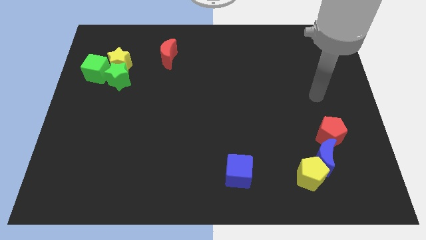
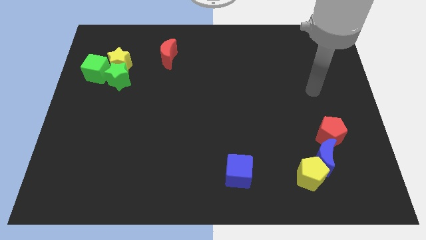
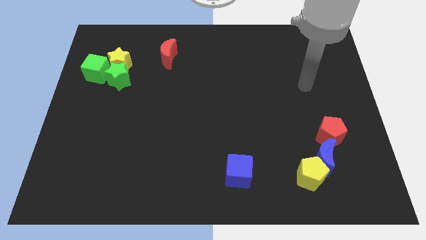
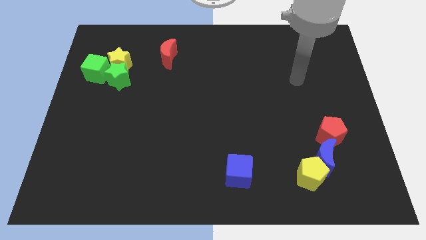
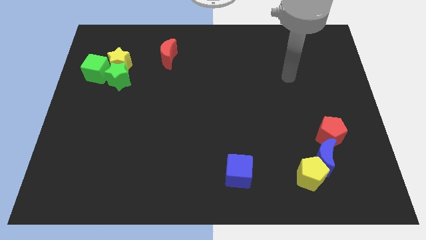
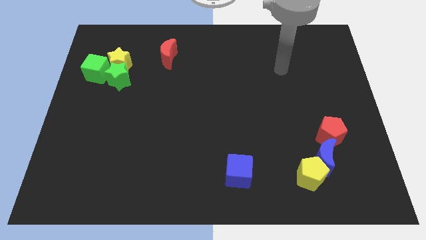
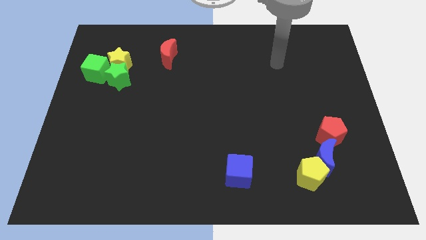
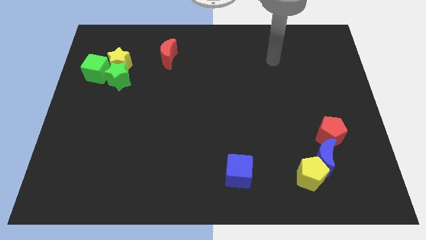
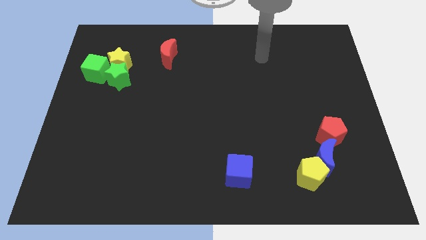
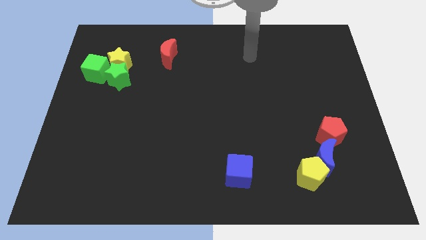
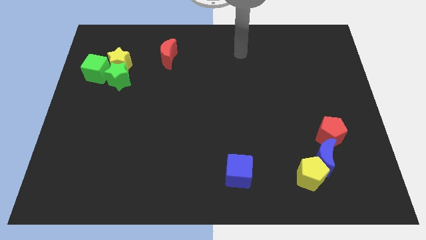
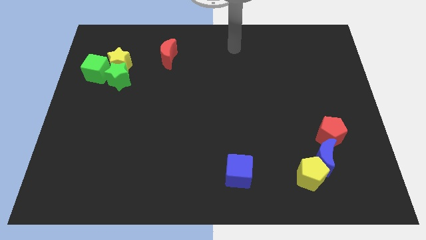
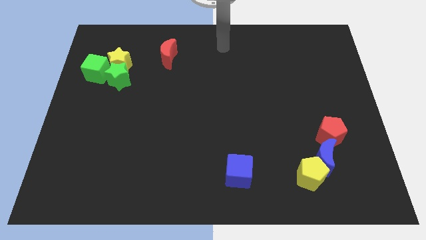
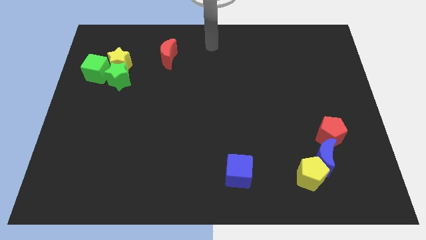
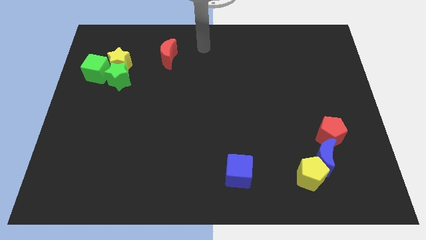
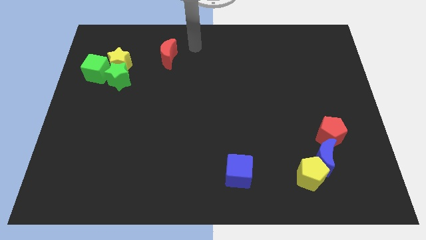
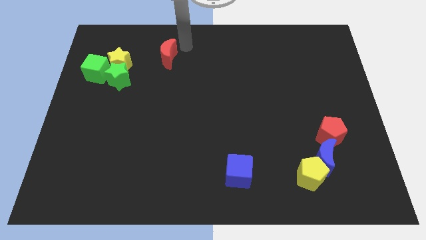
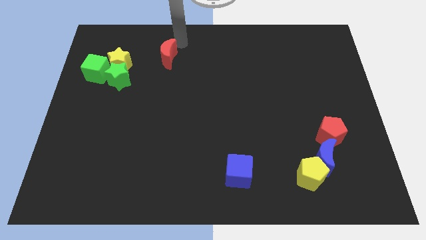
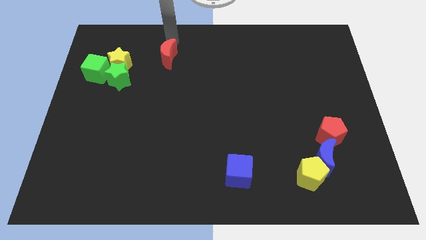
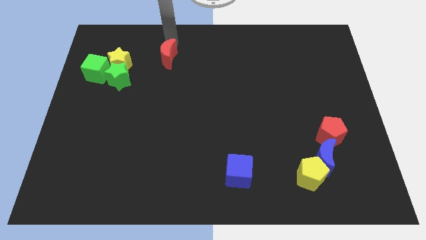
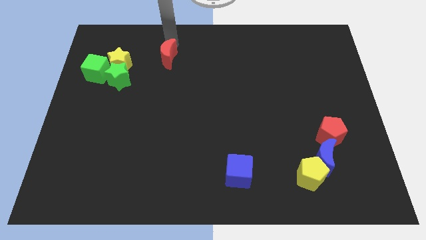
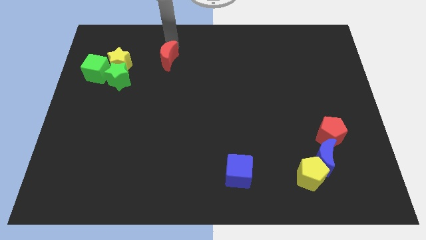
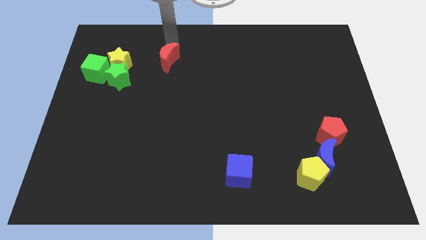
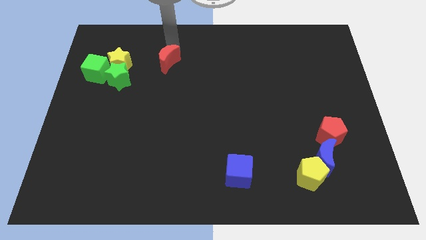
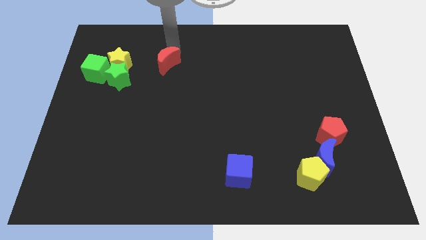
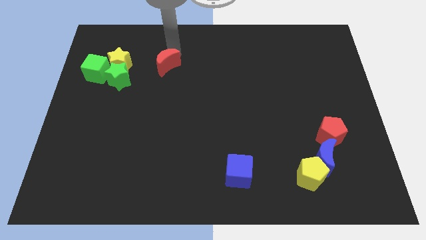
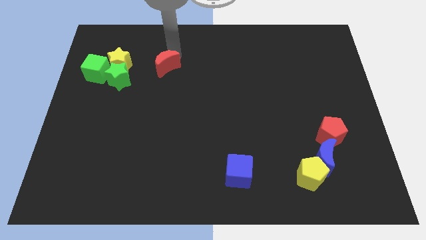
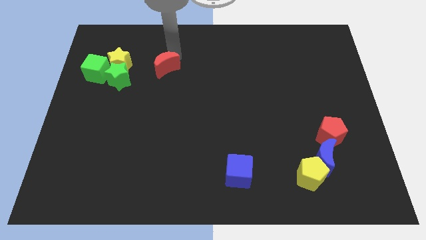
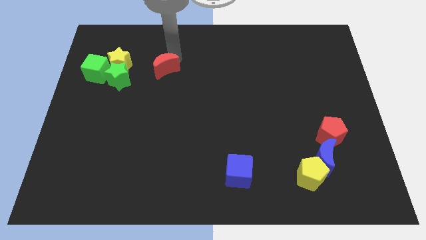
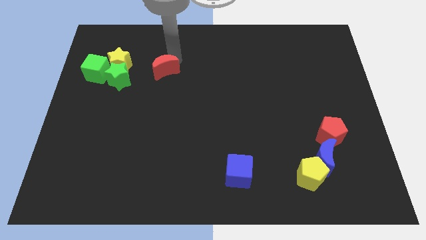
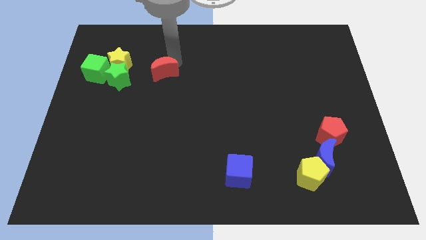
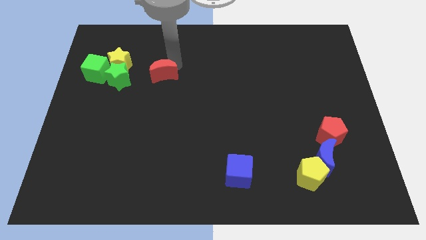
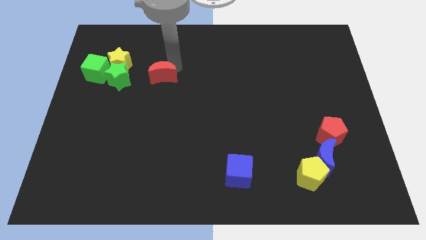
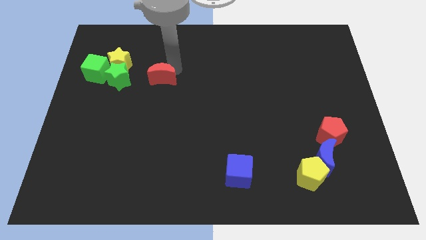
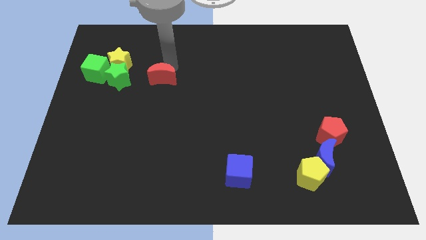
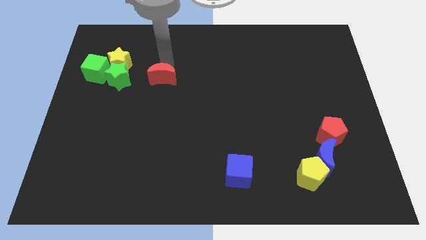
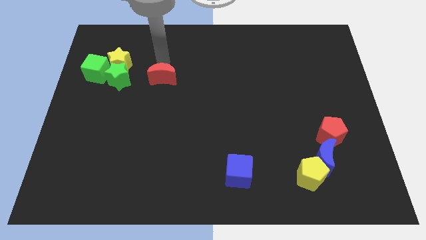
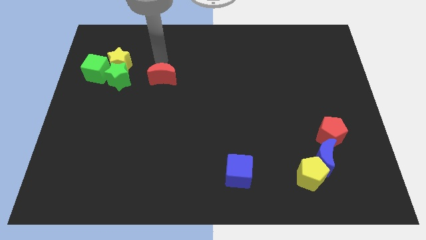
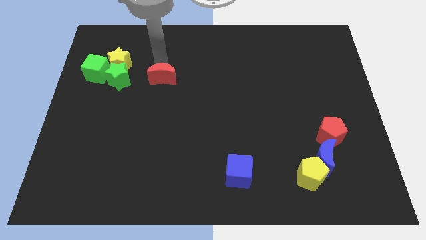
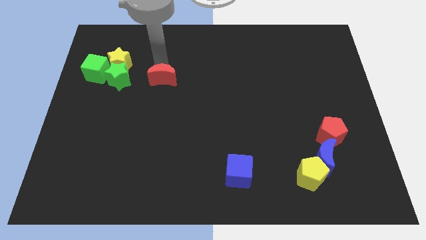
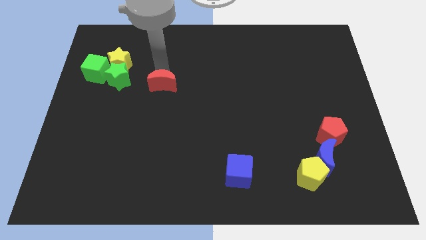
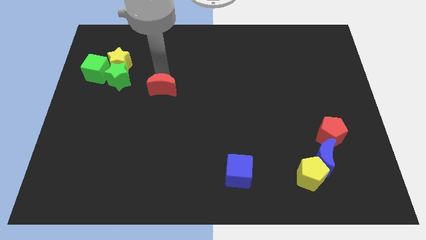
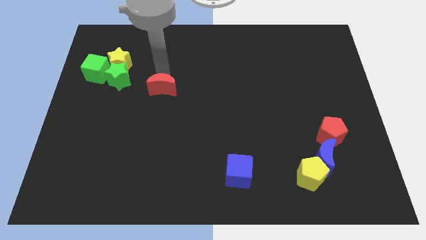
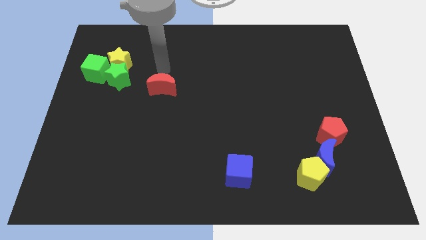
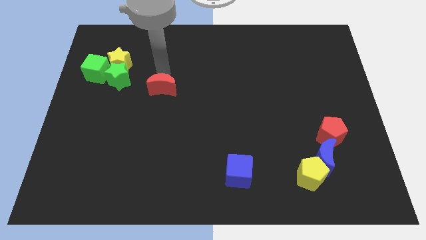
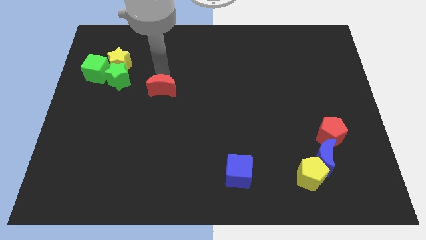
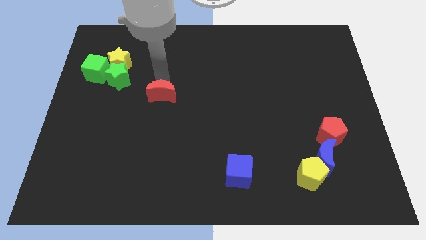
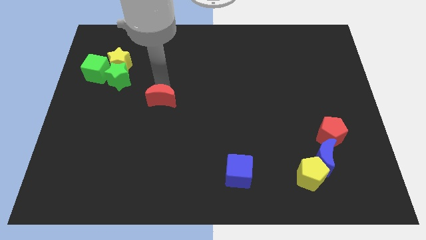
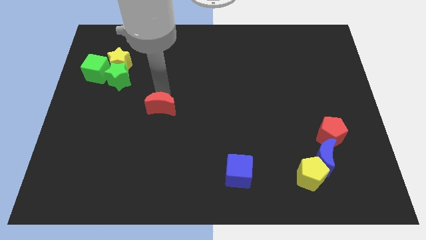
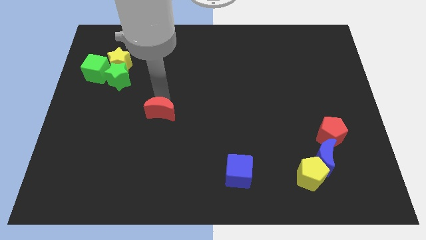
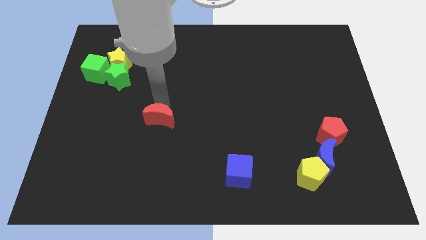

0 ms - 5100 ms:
move the red moon down

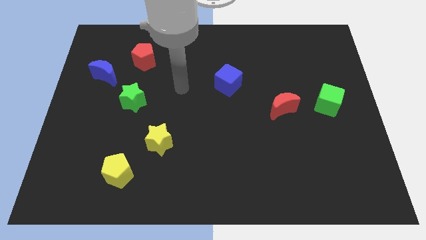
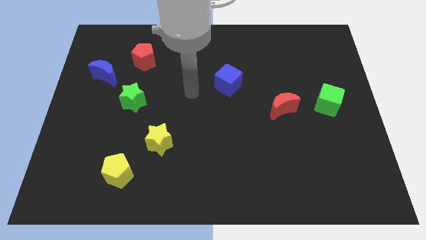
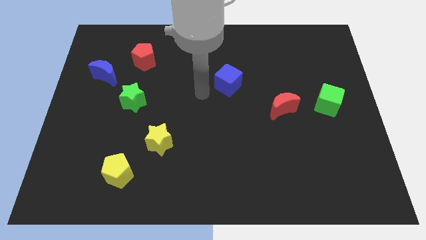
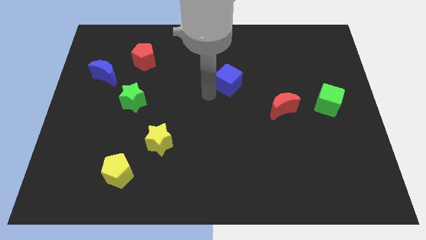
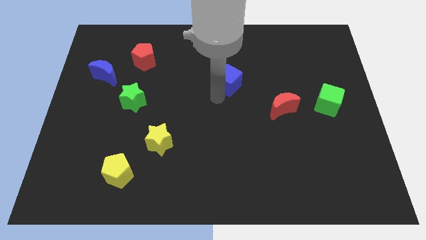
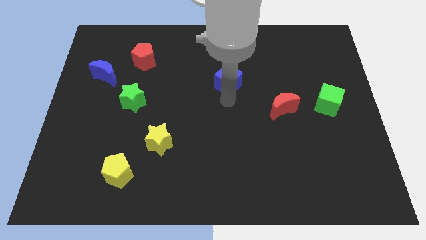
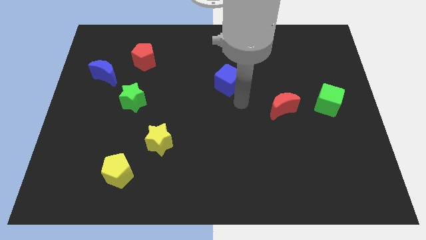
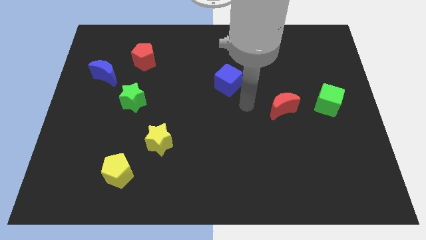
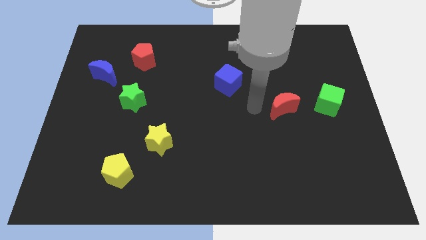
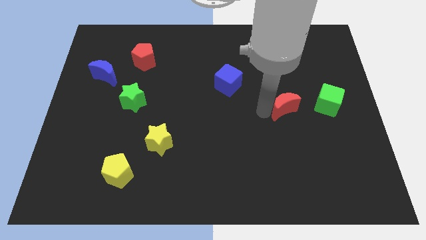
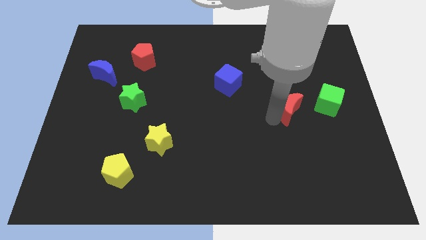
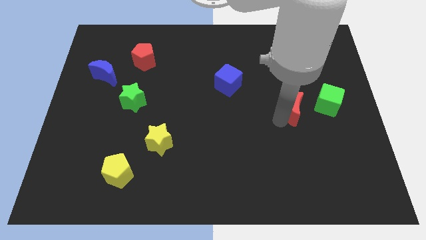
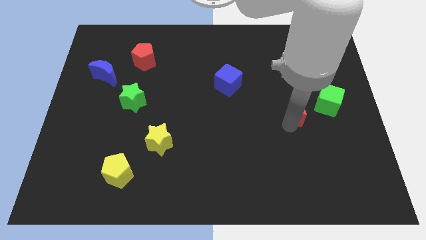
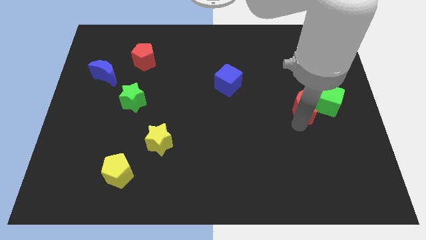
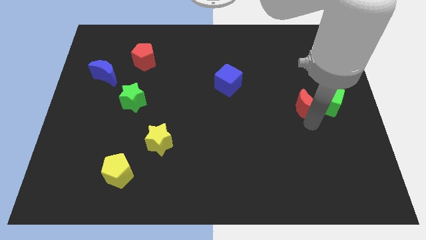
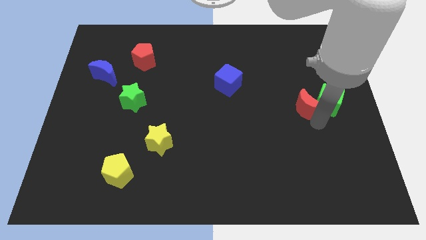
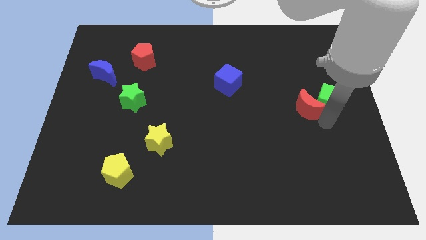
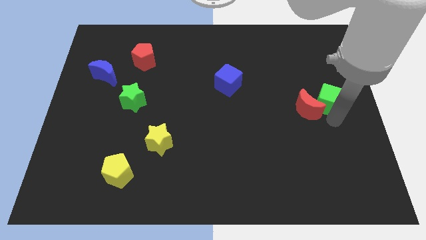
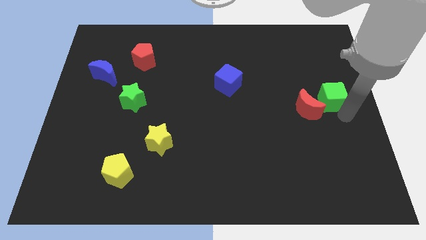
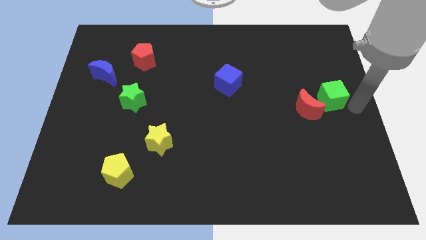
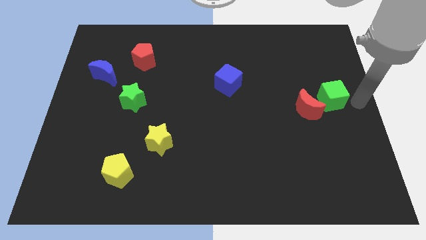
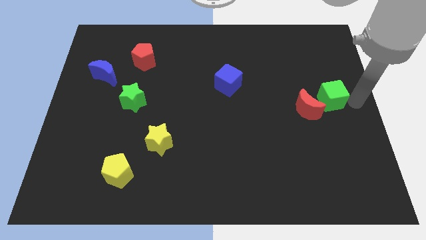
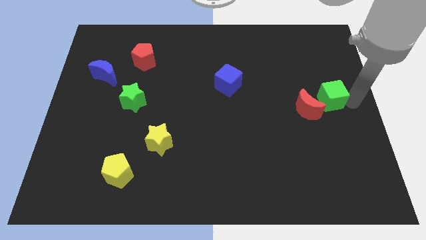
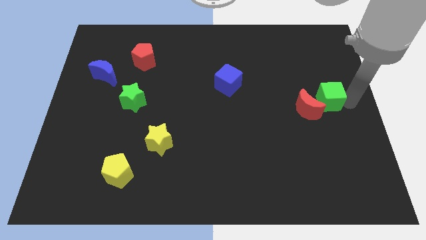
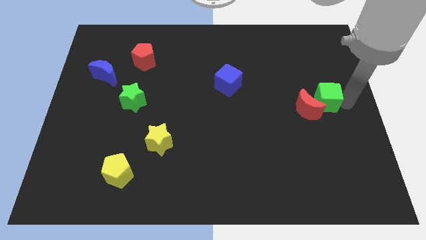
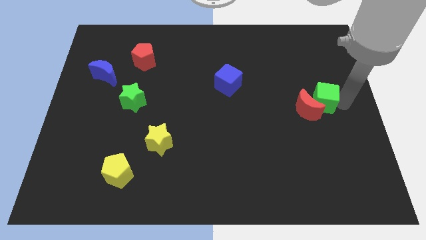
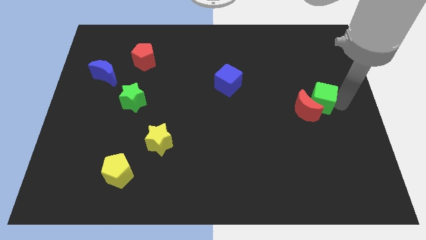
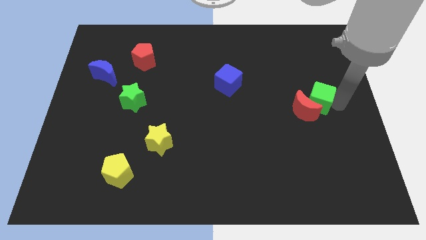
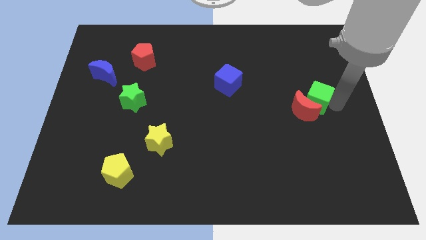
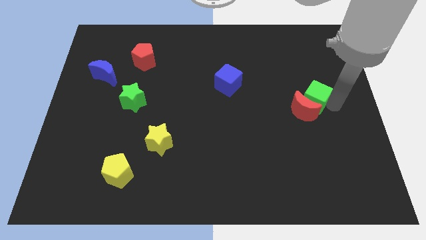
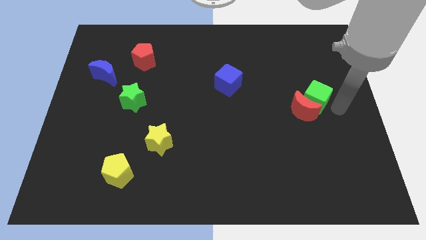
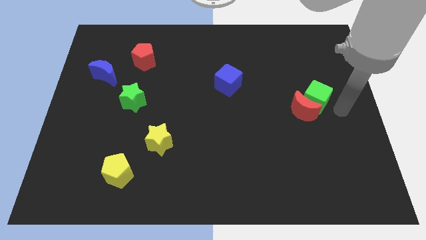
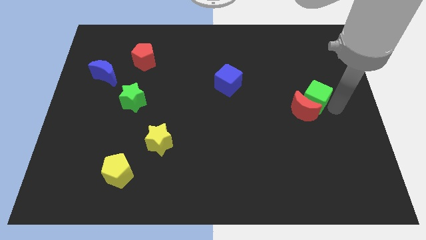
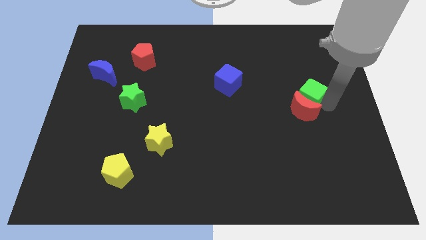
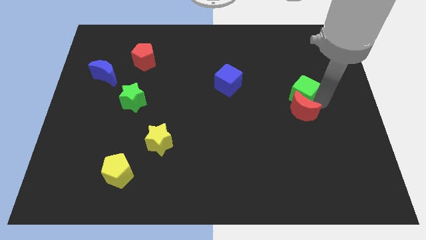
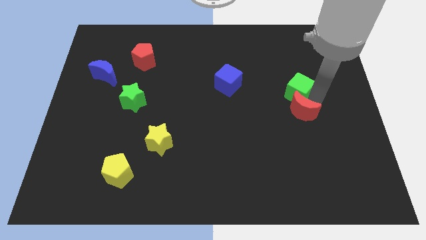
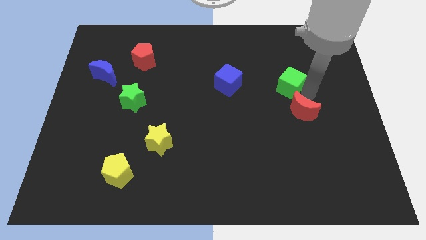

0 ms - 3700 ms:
push the green cube to the left a little bit
